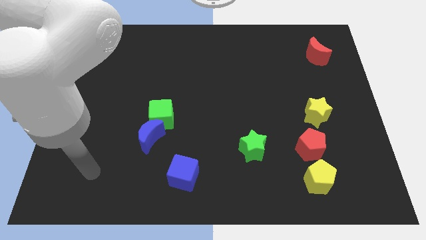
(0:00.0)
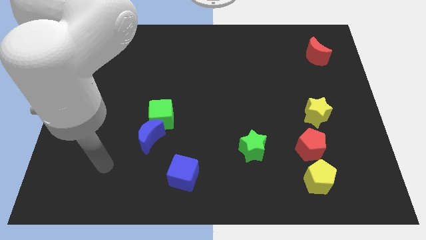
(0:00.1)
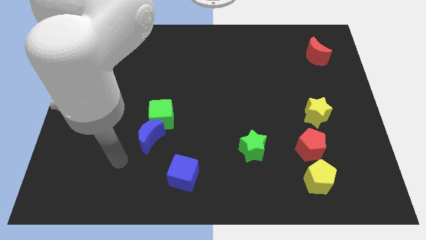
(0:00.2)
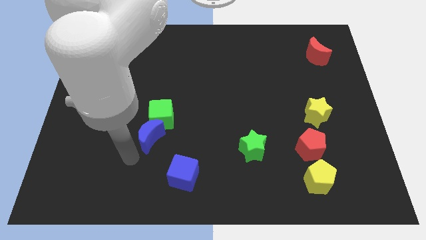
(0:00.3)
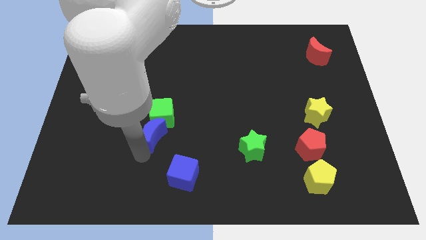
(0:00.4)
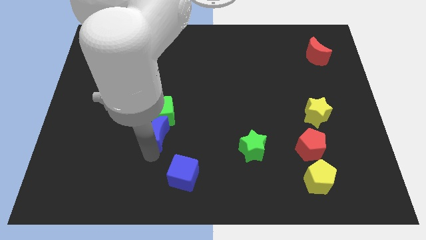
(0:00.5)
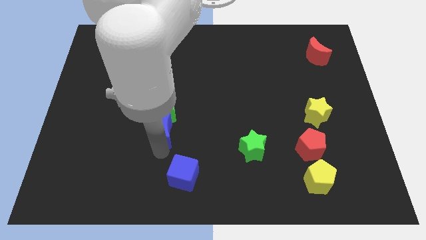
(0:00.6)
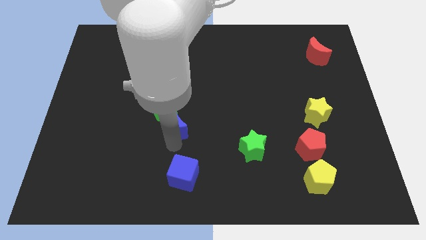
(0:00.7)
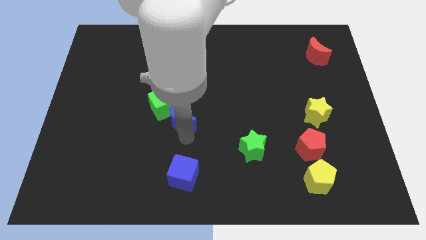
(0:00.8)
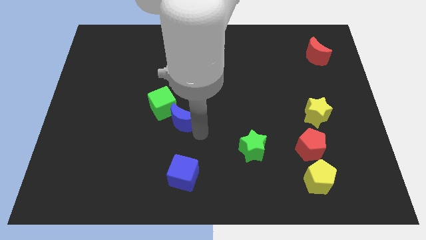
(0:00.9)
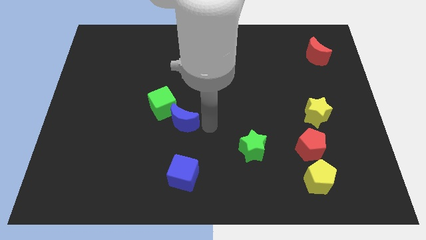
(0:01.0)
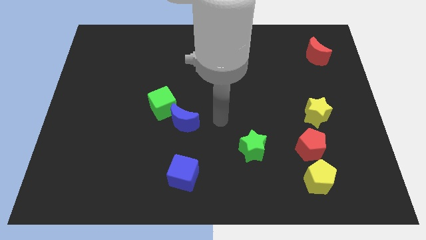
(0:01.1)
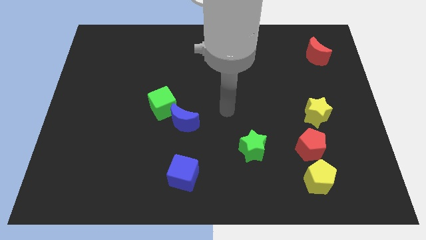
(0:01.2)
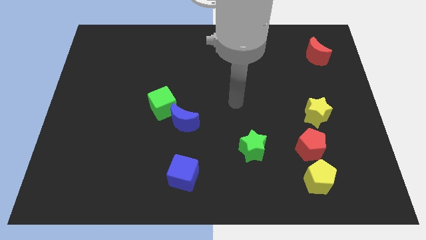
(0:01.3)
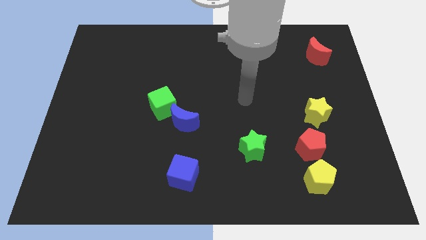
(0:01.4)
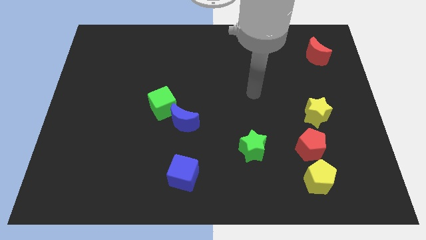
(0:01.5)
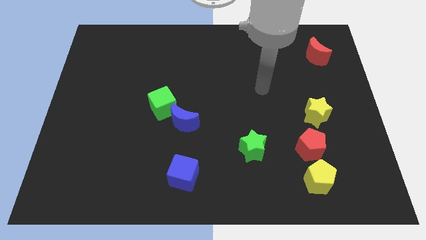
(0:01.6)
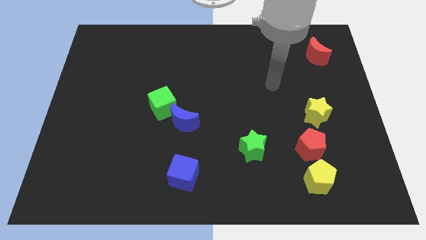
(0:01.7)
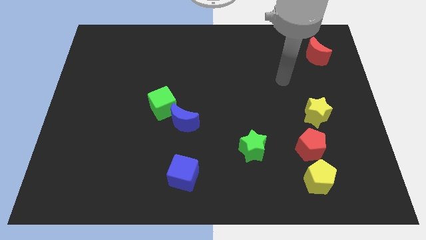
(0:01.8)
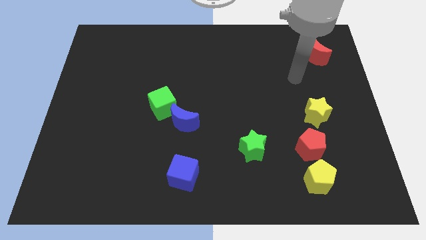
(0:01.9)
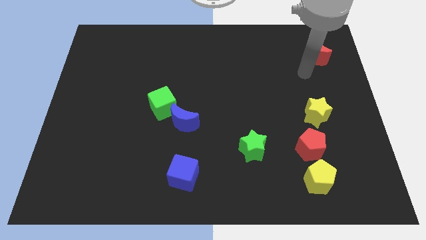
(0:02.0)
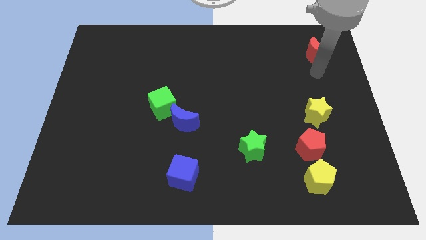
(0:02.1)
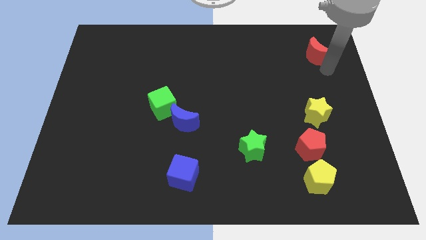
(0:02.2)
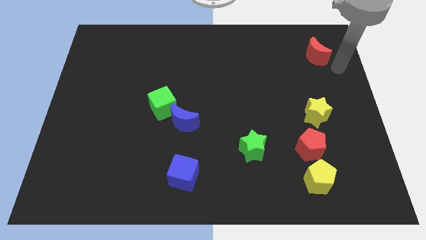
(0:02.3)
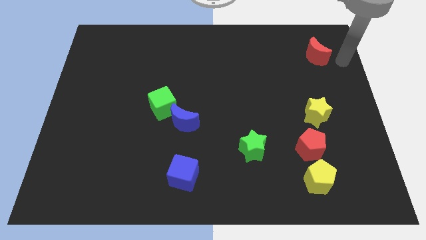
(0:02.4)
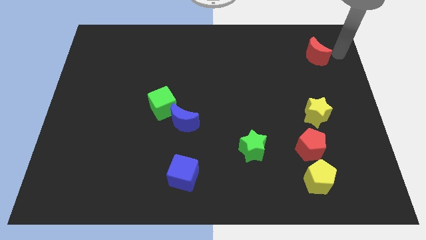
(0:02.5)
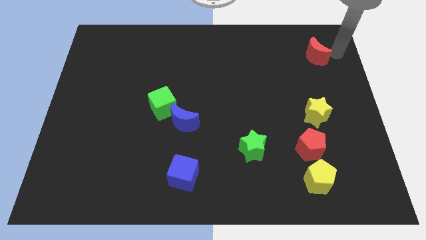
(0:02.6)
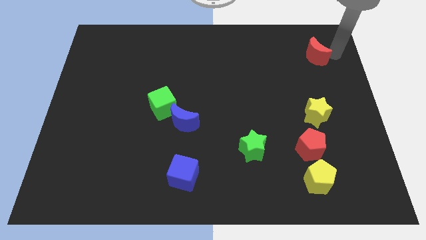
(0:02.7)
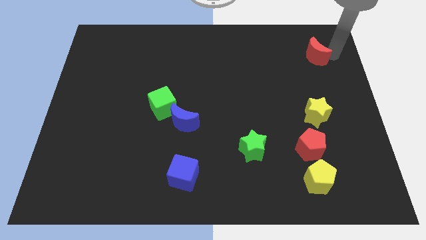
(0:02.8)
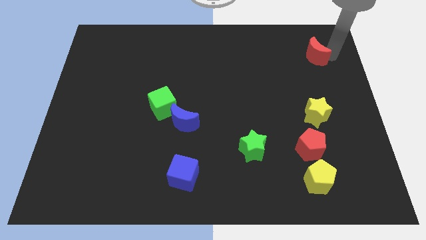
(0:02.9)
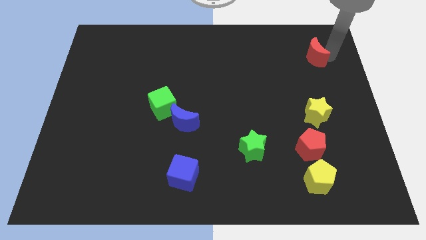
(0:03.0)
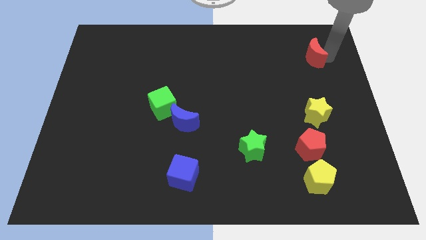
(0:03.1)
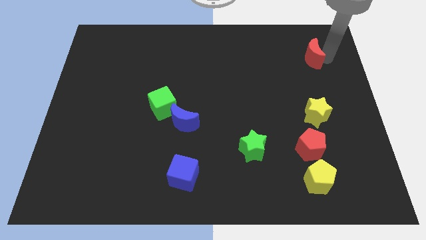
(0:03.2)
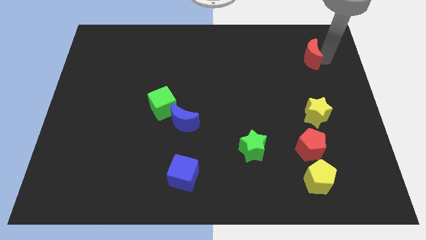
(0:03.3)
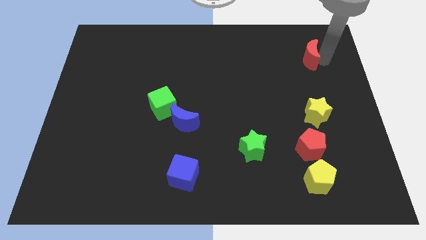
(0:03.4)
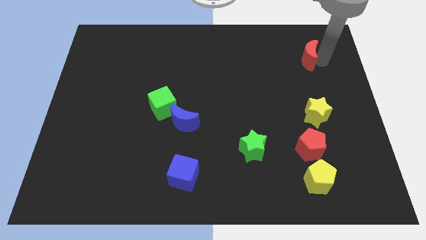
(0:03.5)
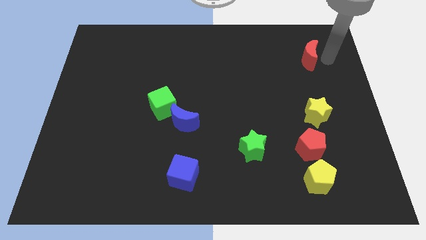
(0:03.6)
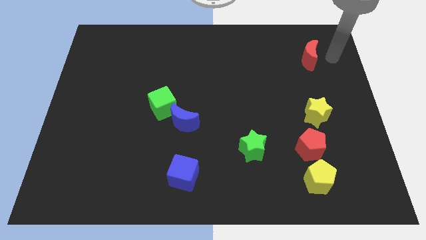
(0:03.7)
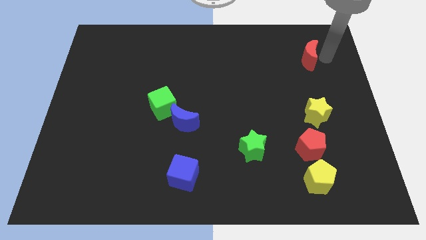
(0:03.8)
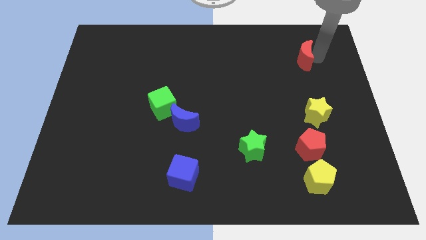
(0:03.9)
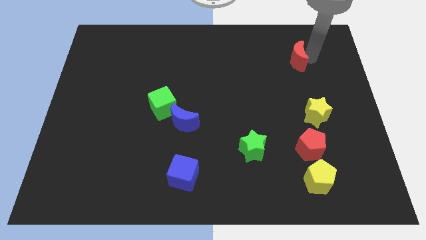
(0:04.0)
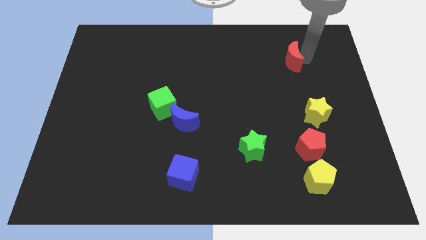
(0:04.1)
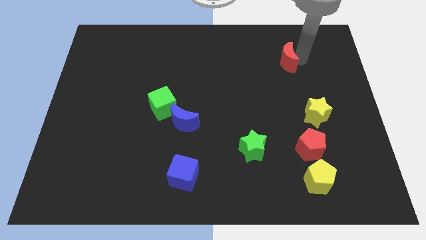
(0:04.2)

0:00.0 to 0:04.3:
slightly push the red moon left

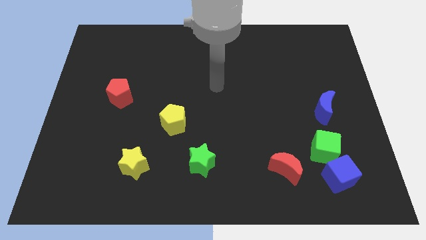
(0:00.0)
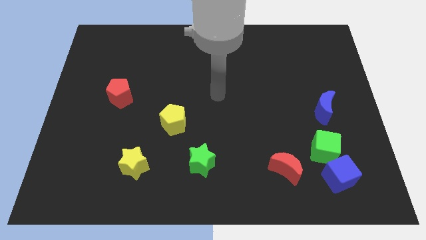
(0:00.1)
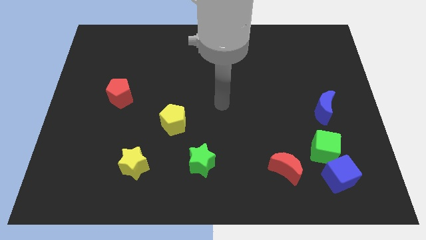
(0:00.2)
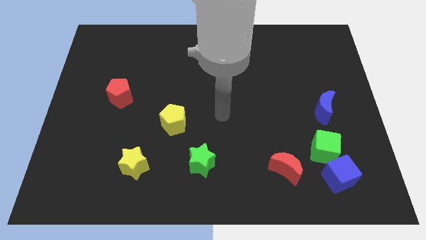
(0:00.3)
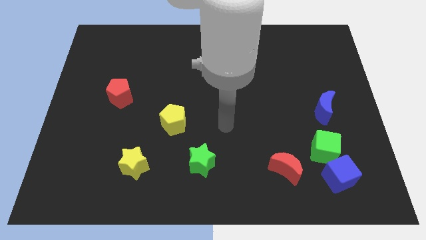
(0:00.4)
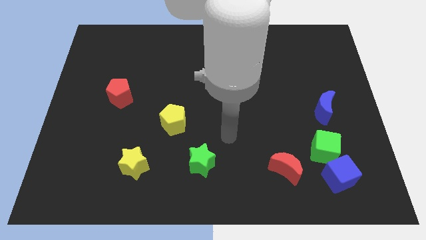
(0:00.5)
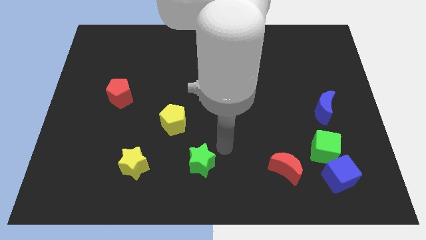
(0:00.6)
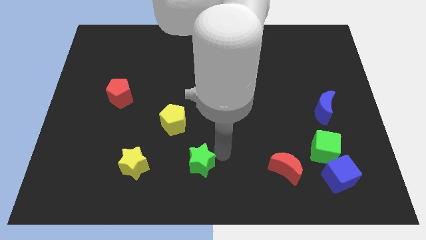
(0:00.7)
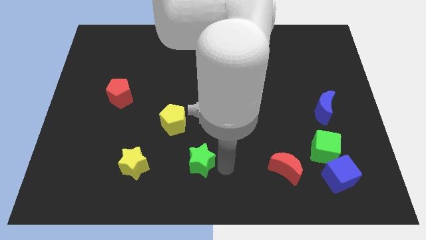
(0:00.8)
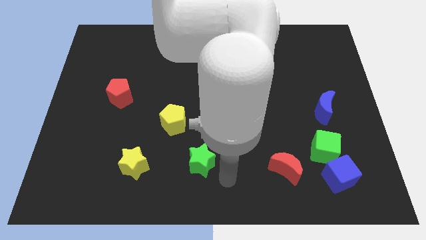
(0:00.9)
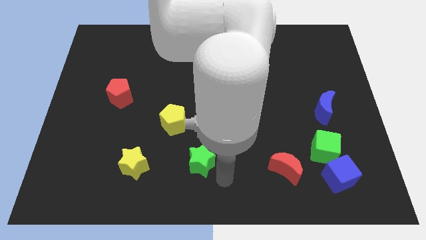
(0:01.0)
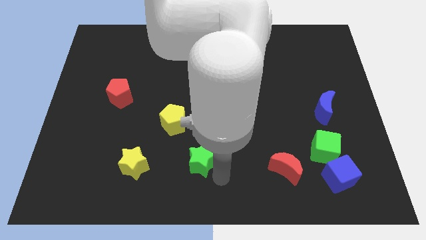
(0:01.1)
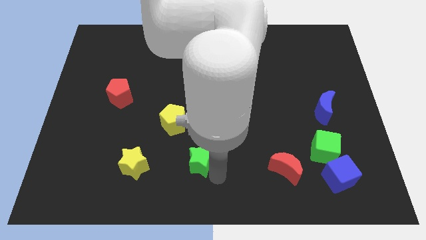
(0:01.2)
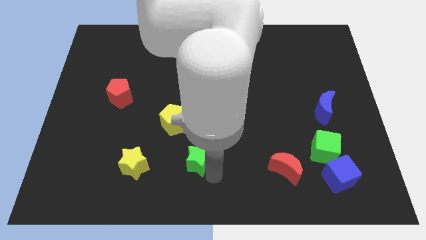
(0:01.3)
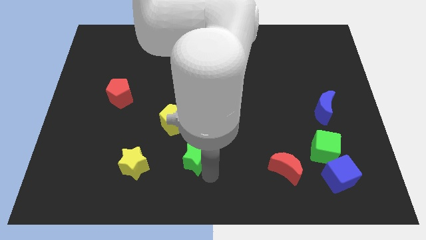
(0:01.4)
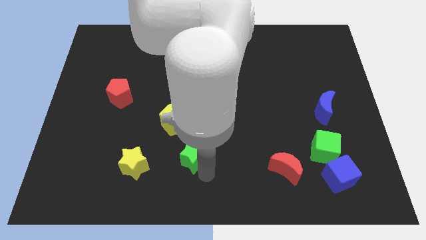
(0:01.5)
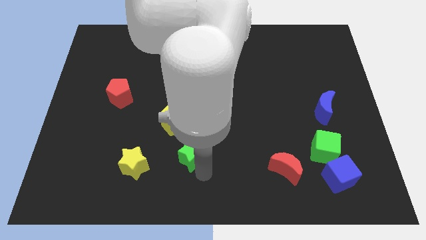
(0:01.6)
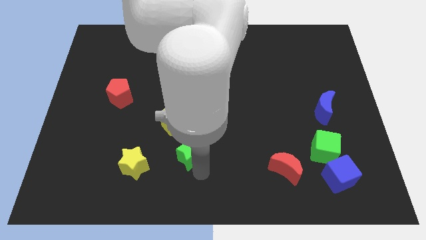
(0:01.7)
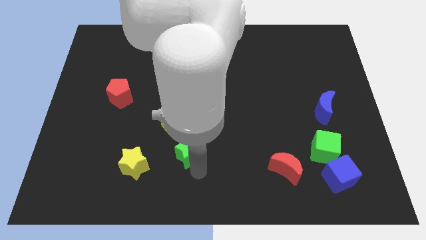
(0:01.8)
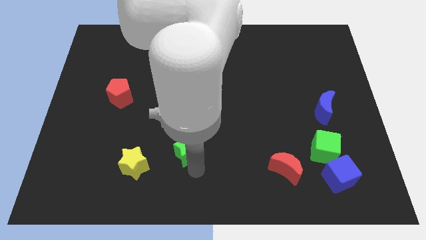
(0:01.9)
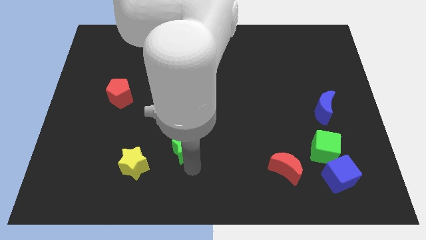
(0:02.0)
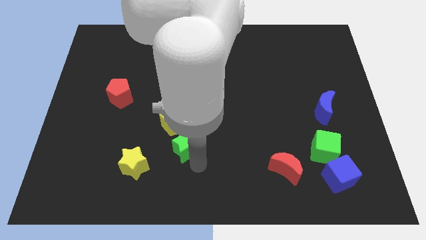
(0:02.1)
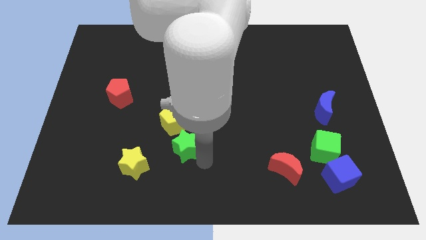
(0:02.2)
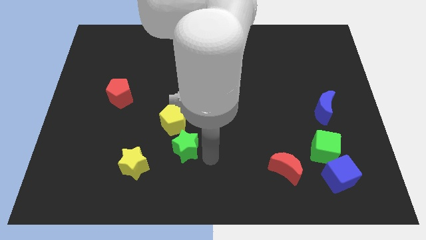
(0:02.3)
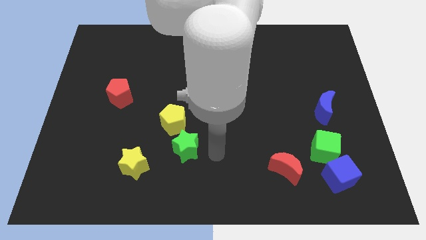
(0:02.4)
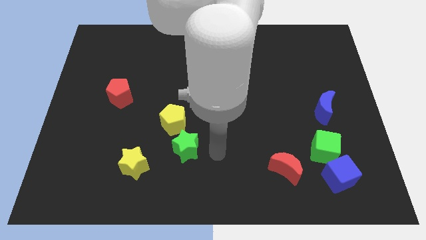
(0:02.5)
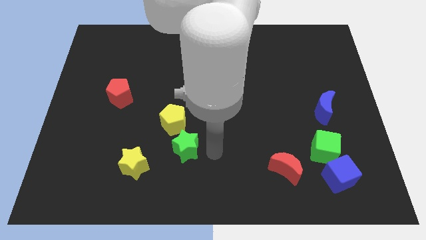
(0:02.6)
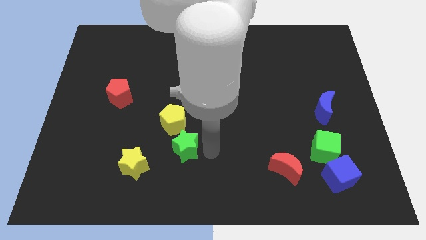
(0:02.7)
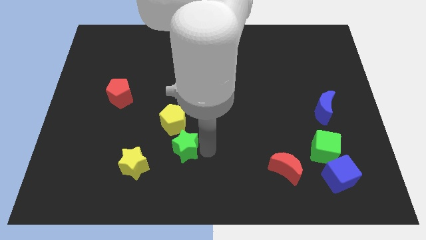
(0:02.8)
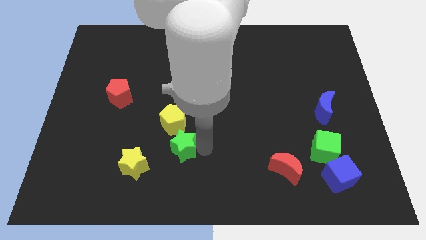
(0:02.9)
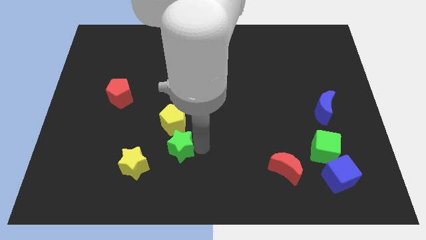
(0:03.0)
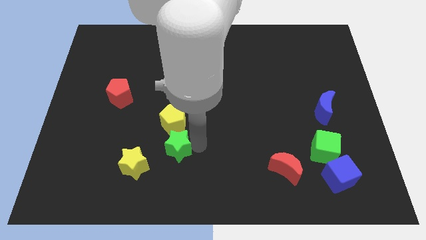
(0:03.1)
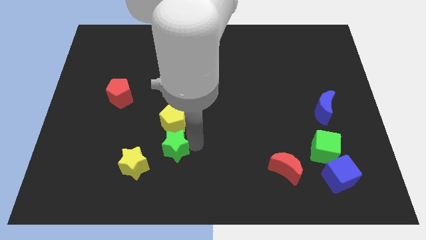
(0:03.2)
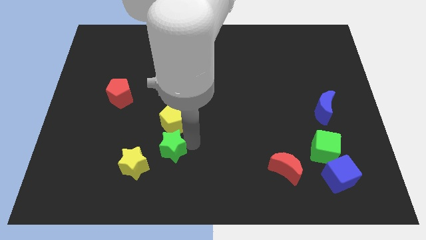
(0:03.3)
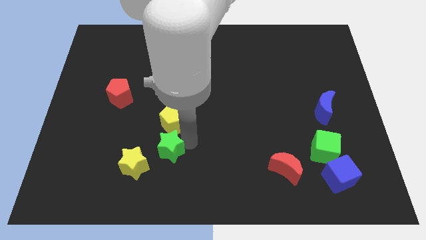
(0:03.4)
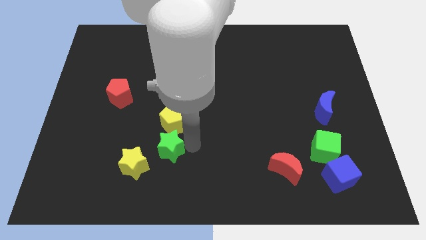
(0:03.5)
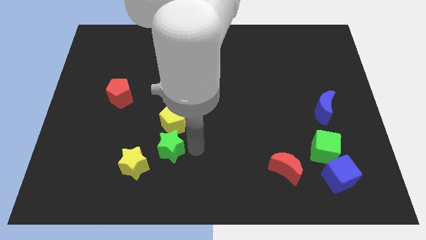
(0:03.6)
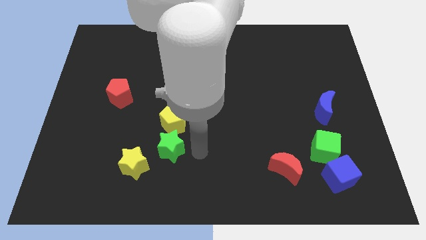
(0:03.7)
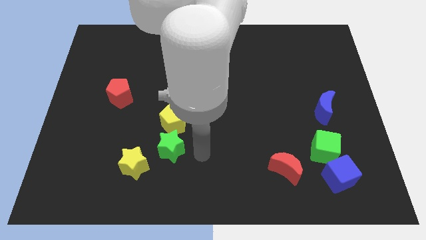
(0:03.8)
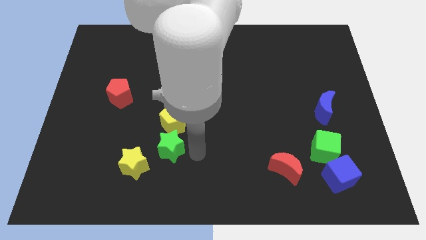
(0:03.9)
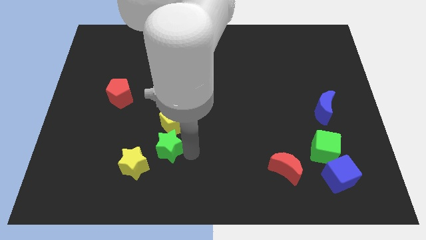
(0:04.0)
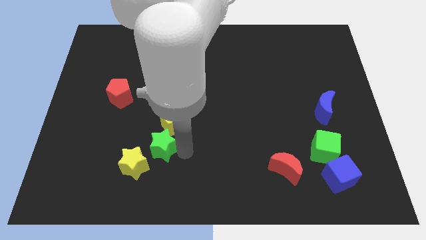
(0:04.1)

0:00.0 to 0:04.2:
move the green star somewhat to the left
